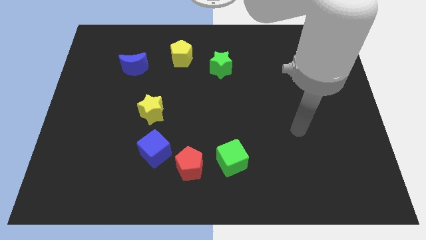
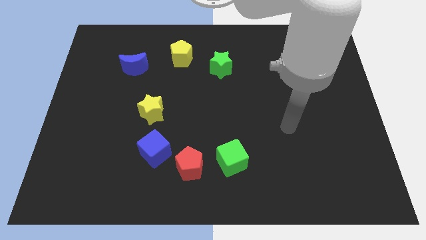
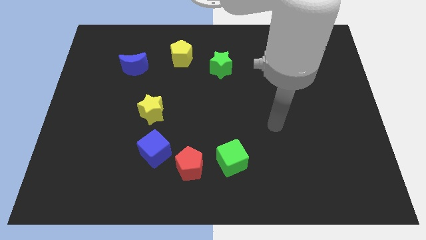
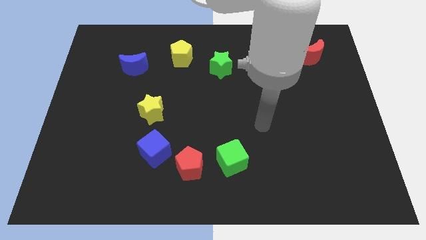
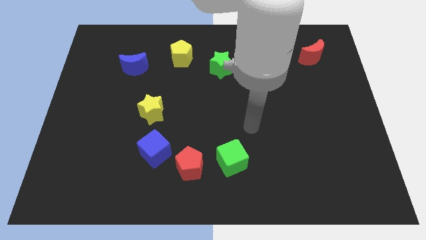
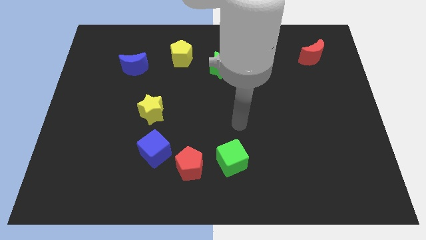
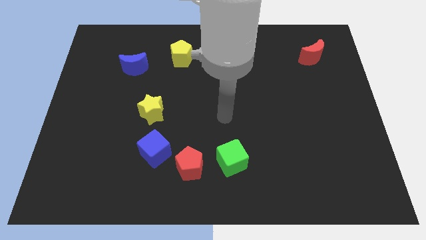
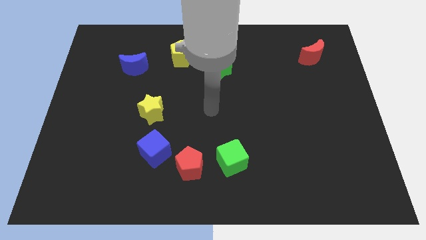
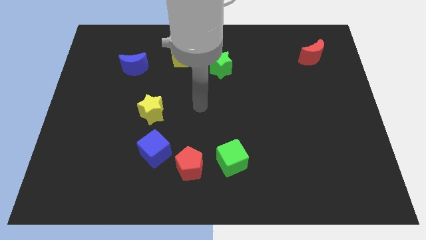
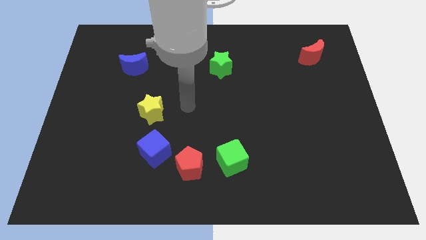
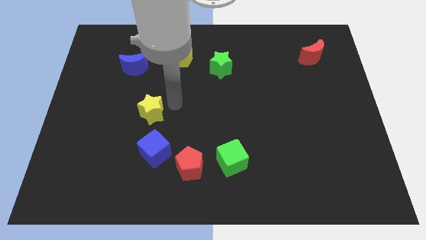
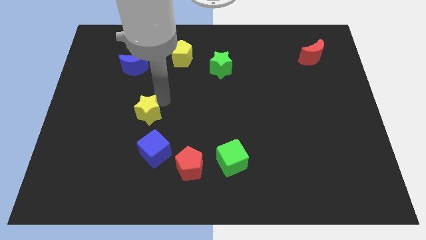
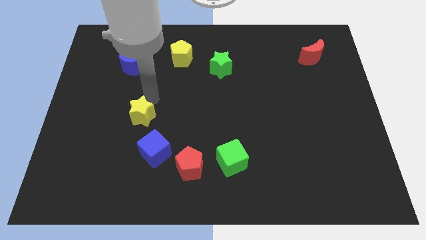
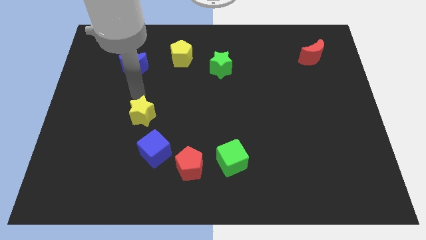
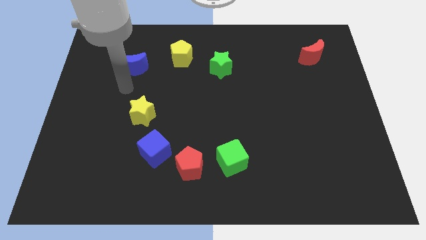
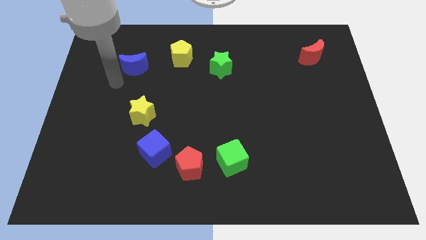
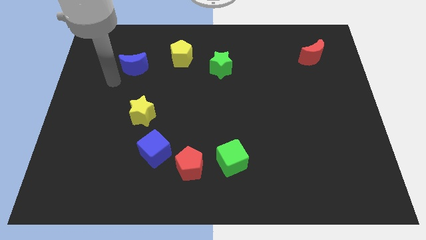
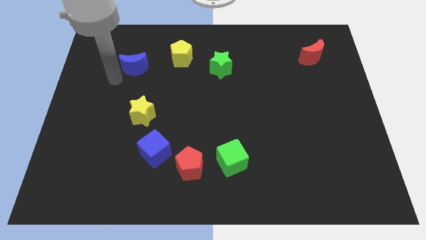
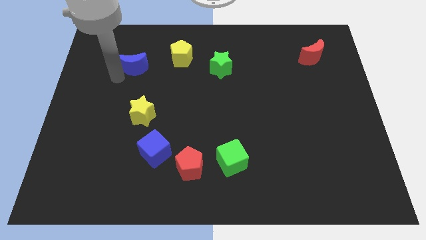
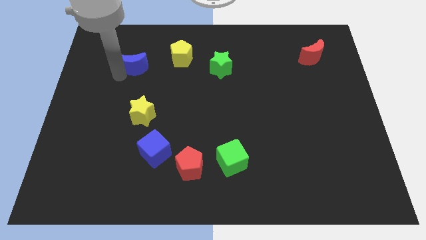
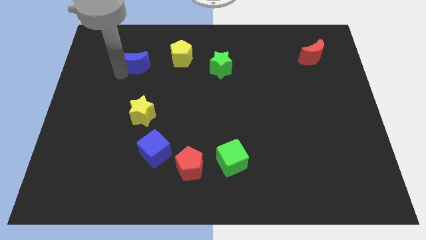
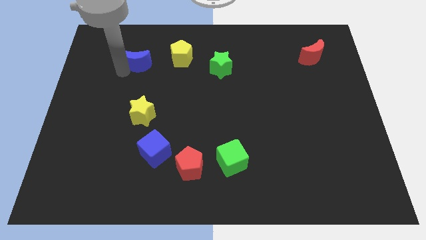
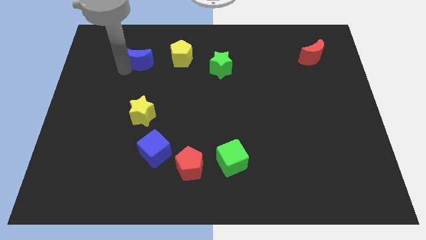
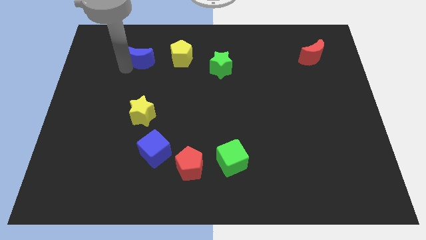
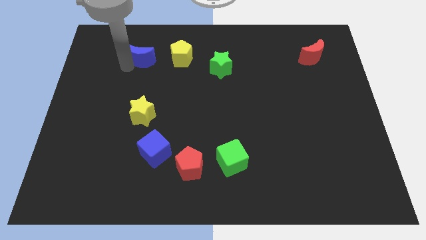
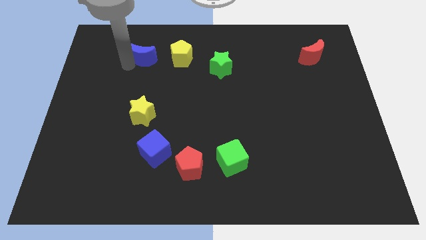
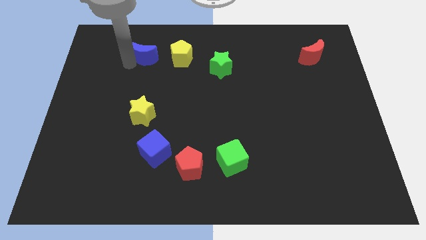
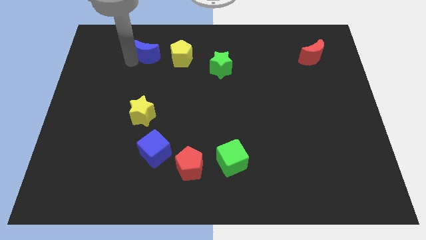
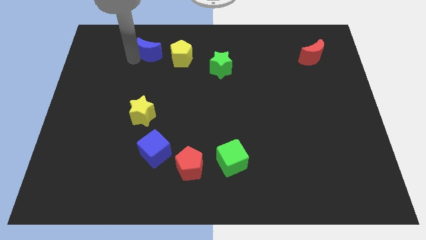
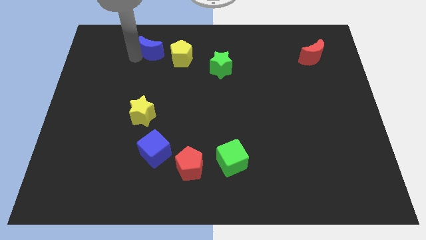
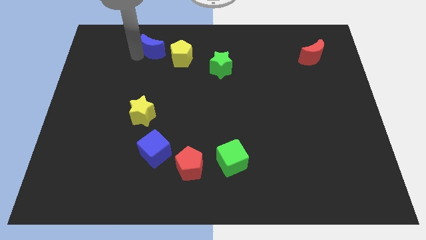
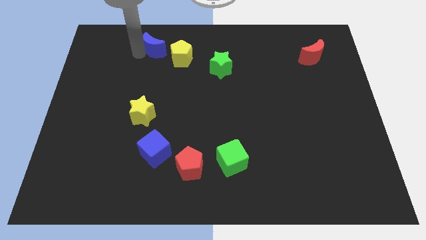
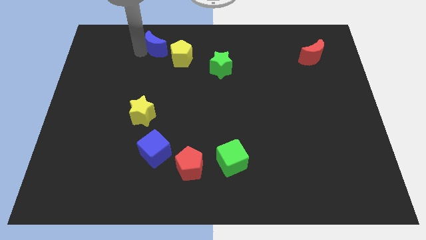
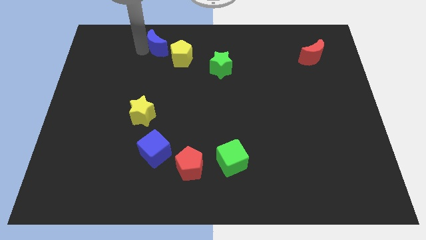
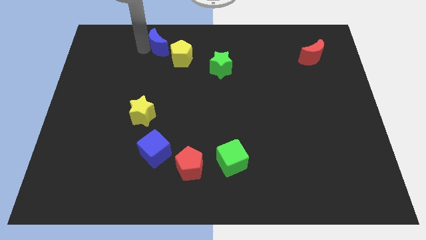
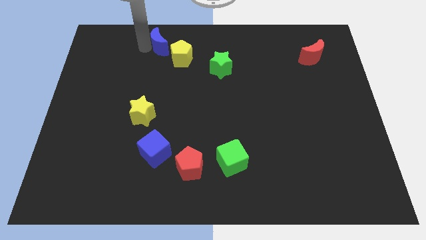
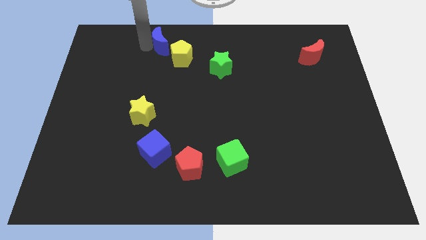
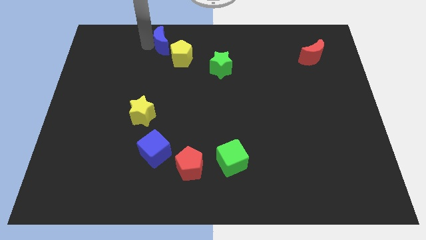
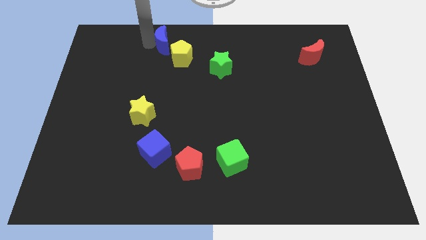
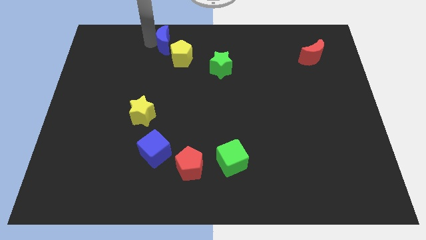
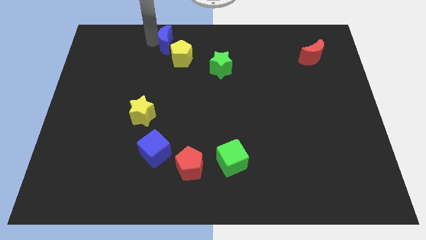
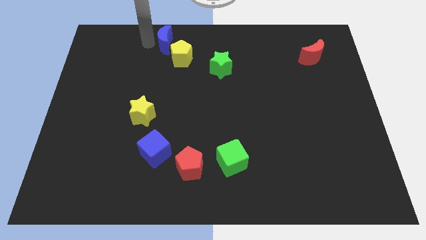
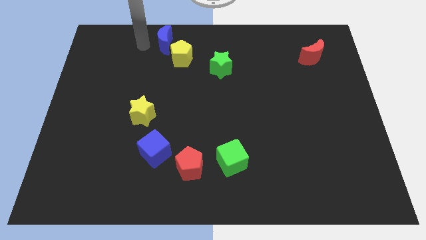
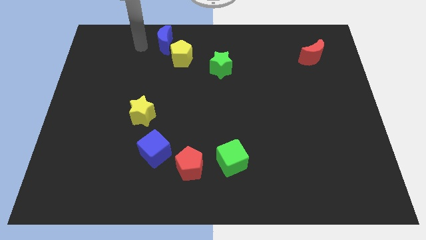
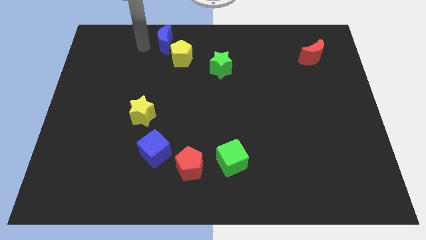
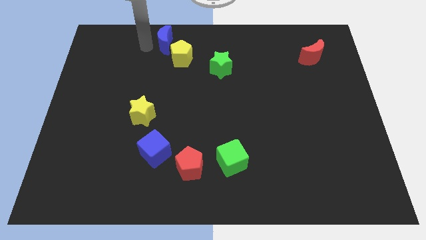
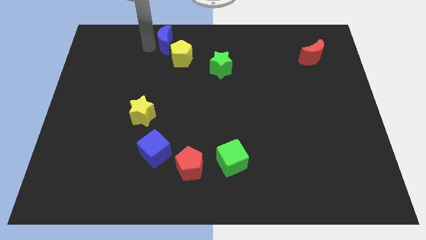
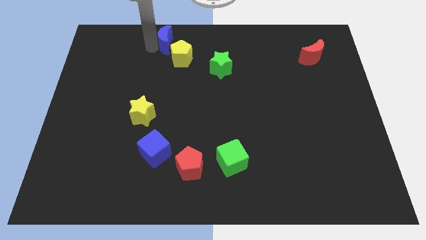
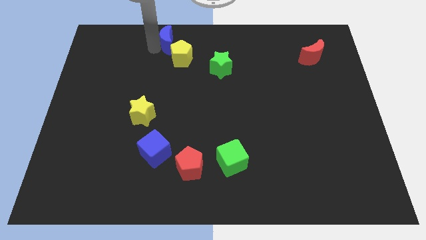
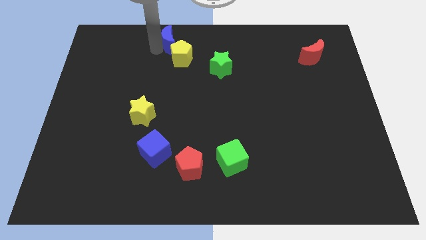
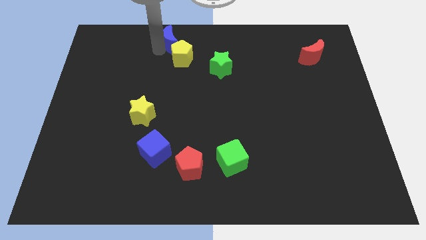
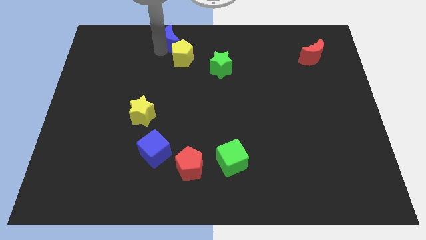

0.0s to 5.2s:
put the blue moon to the top

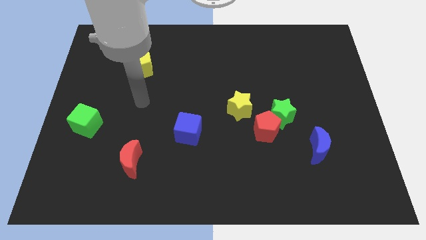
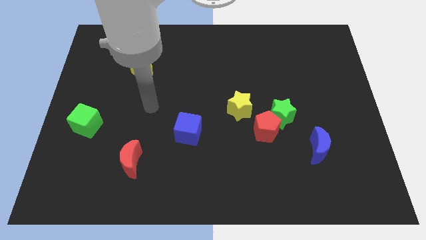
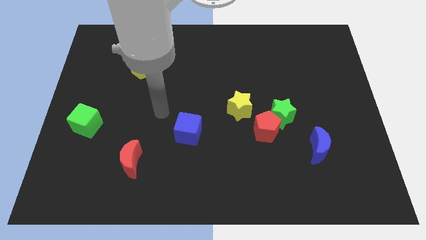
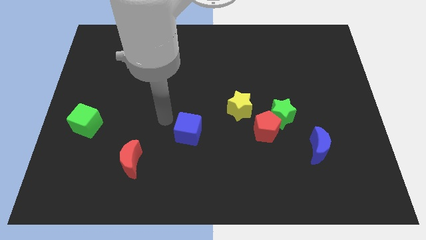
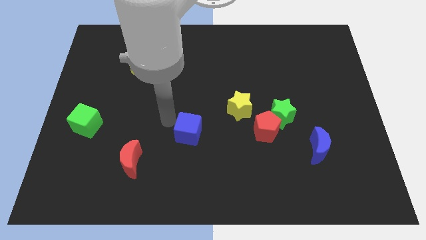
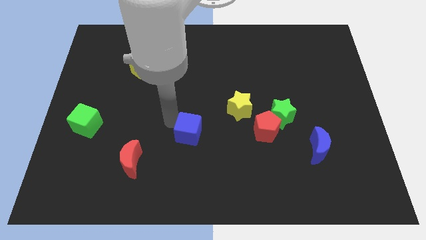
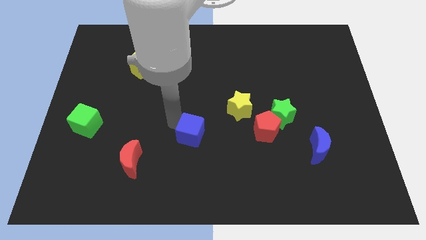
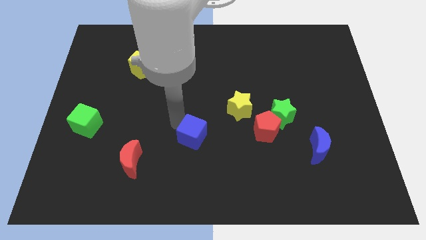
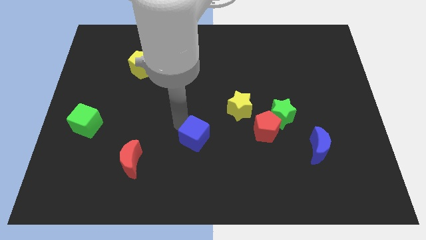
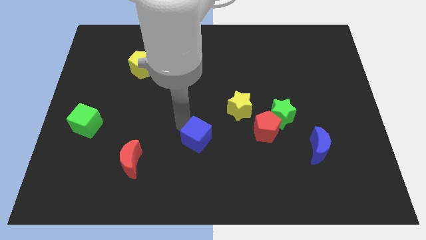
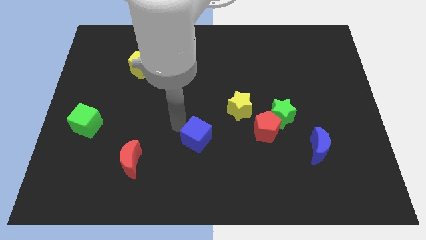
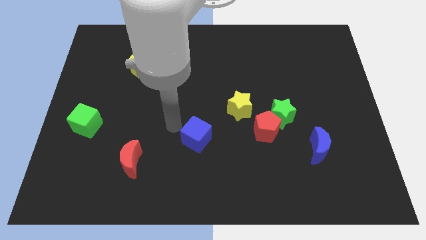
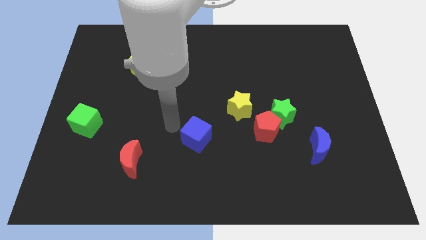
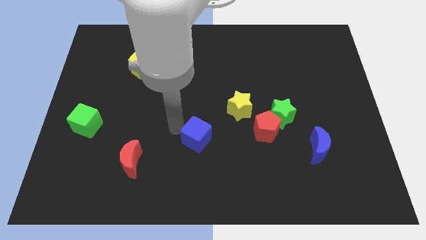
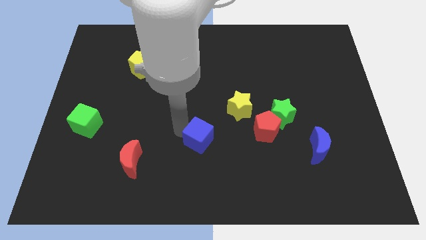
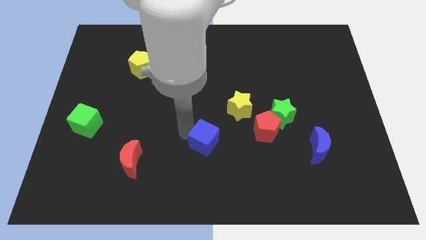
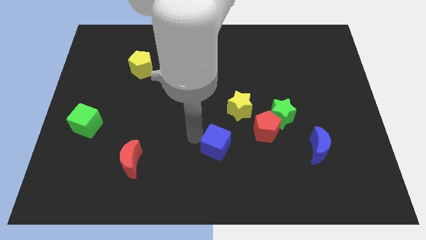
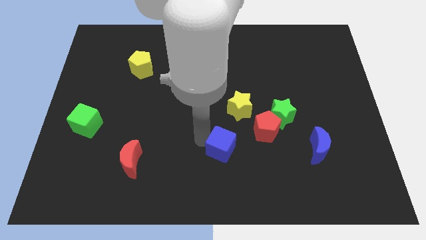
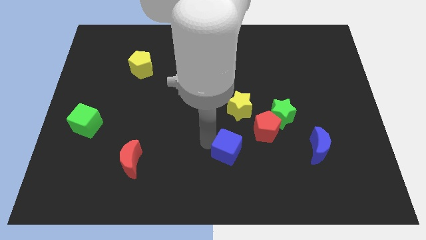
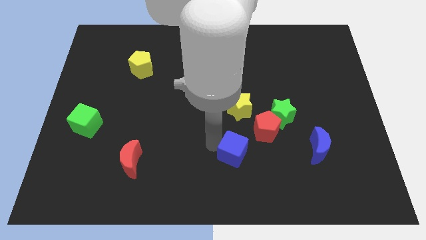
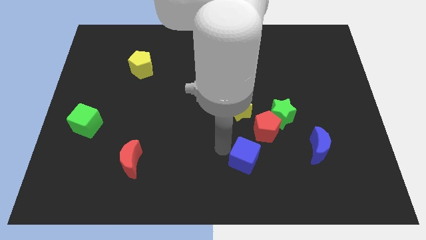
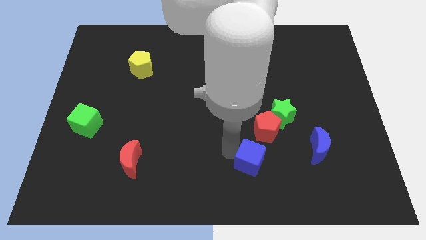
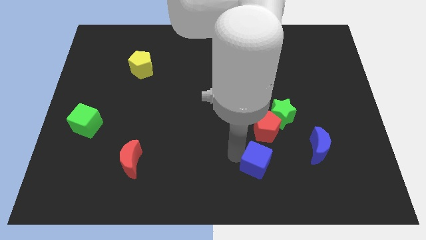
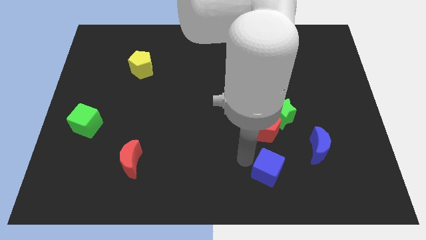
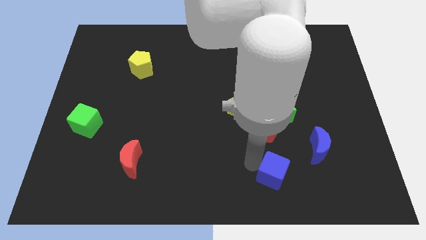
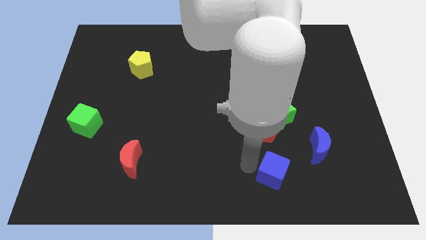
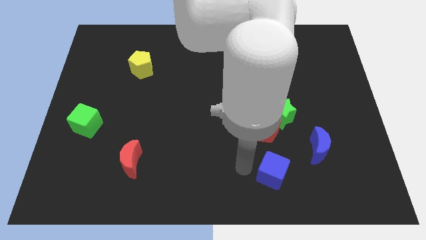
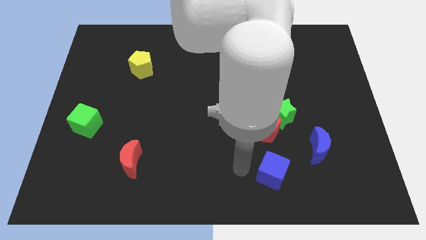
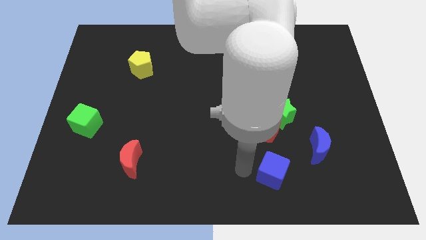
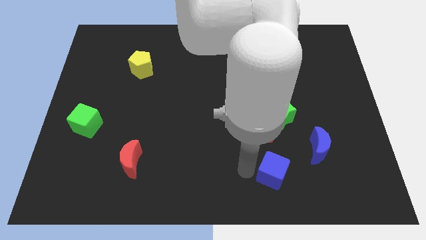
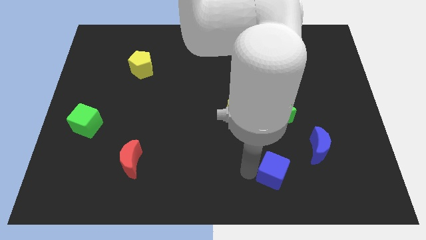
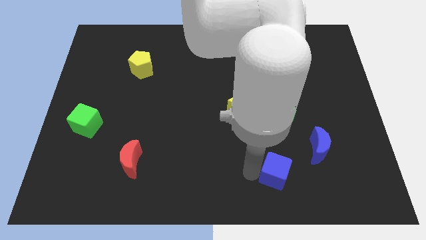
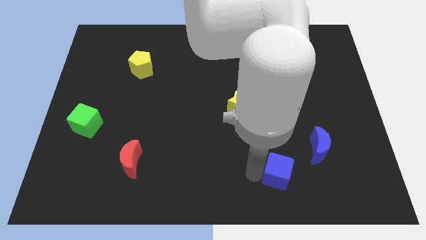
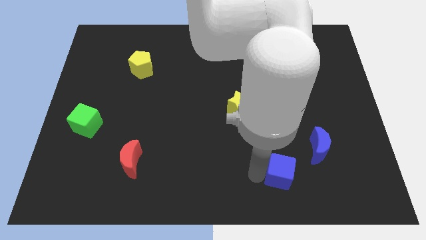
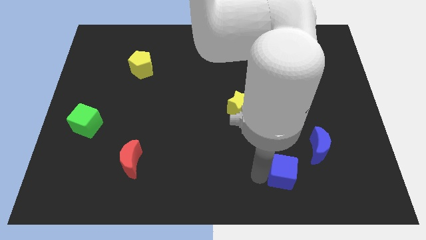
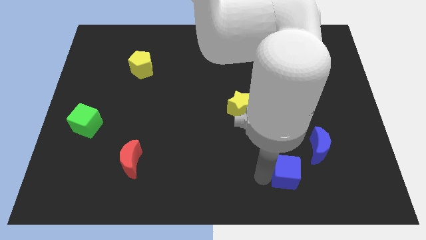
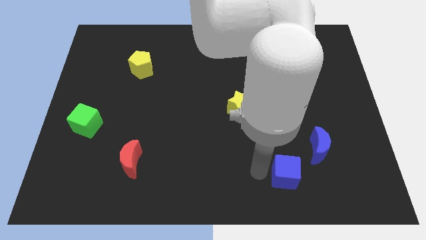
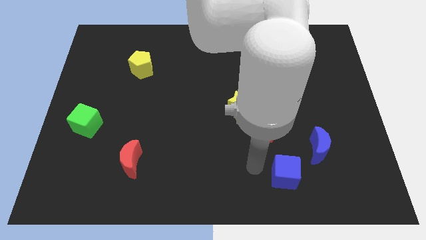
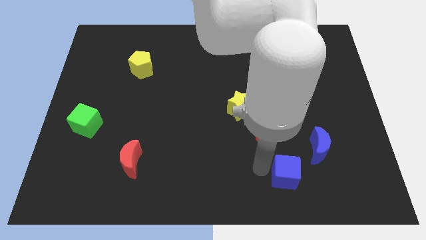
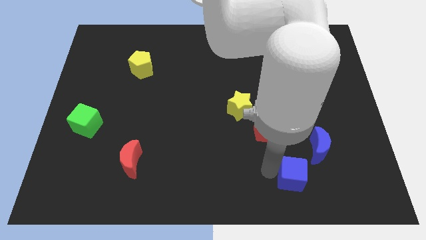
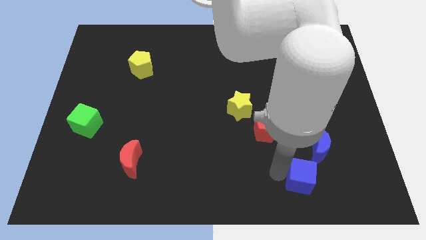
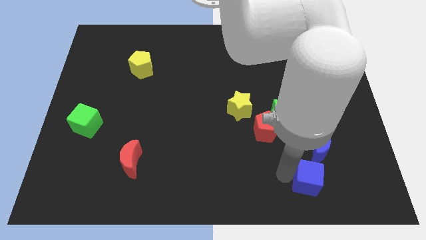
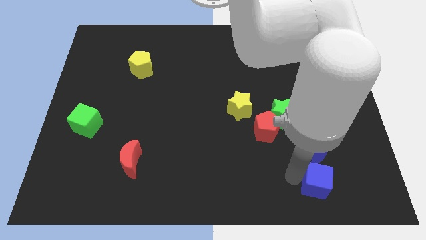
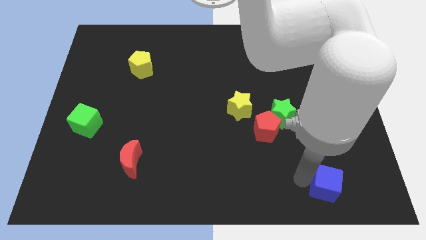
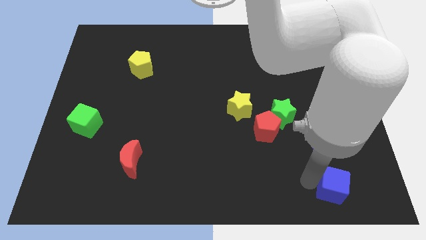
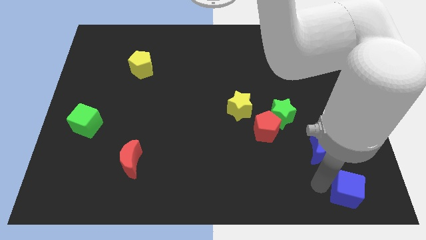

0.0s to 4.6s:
put the blue cube to the bottom right
